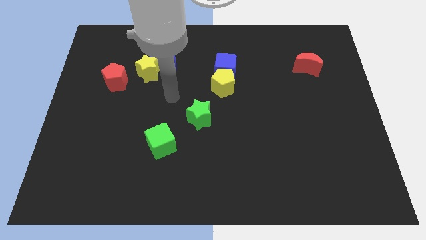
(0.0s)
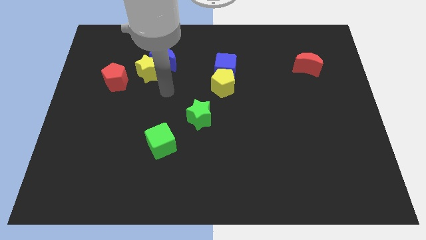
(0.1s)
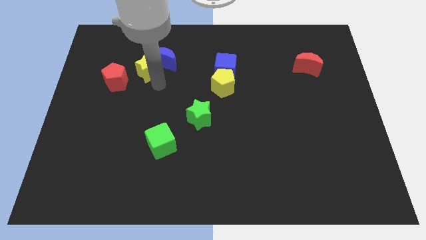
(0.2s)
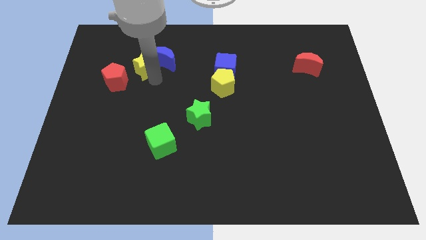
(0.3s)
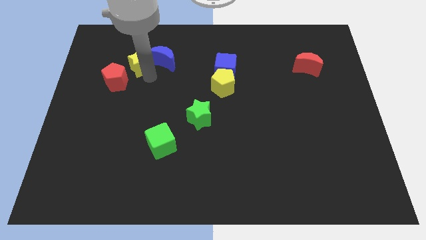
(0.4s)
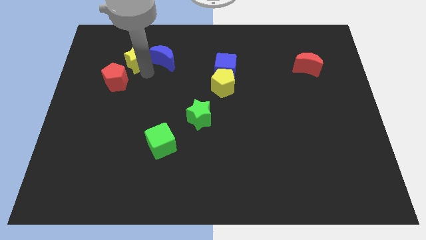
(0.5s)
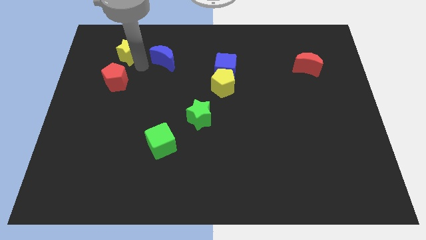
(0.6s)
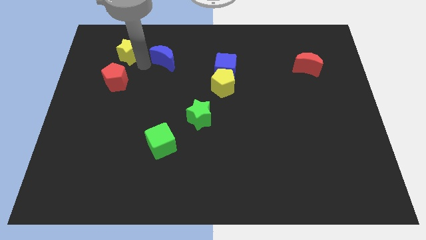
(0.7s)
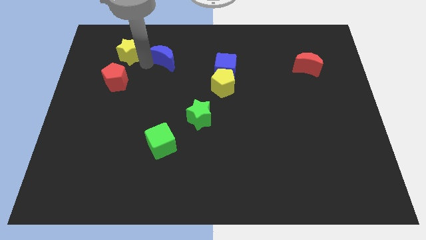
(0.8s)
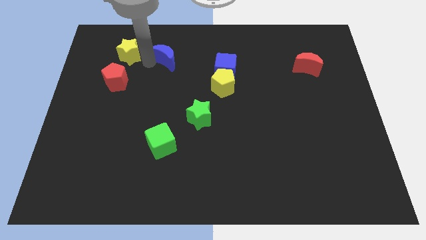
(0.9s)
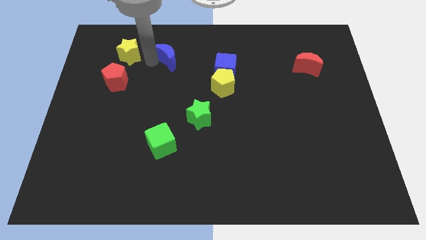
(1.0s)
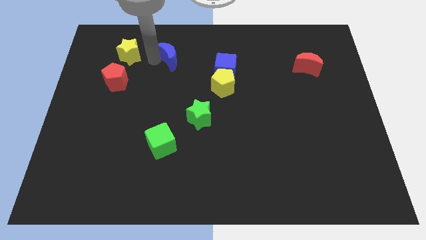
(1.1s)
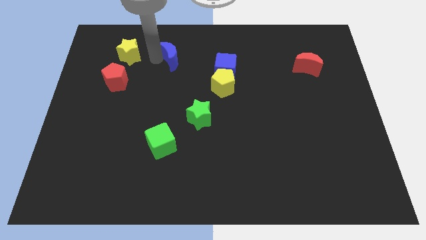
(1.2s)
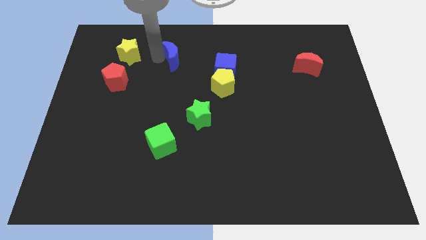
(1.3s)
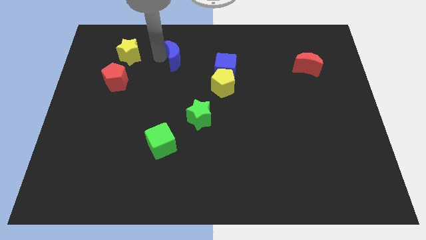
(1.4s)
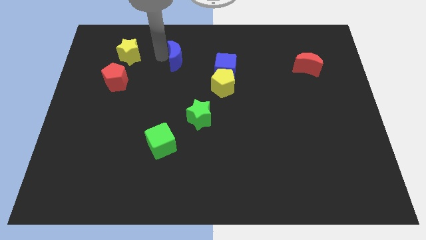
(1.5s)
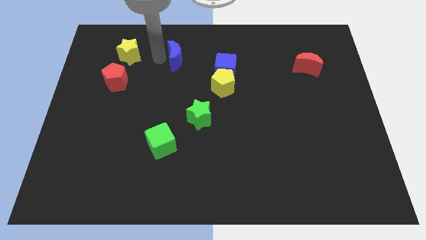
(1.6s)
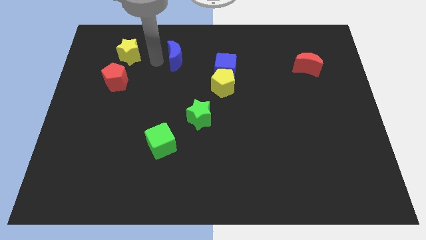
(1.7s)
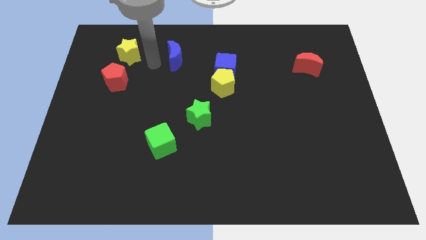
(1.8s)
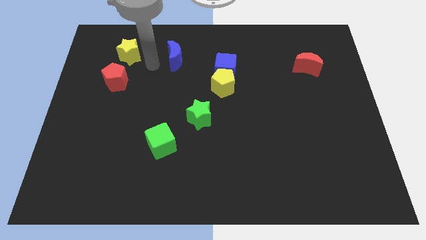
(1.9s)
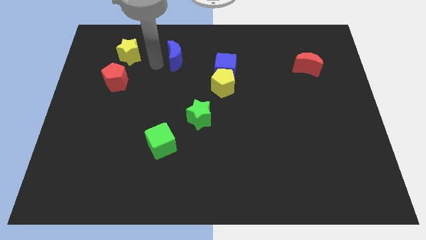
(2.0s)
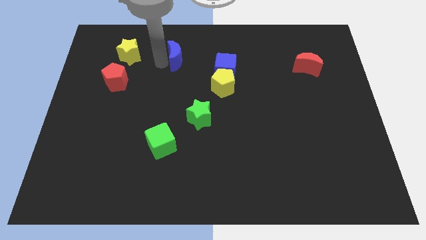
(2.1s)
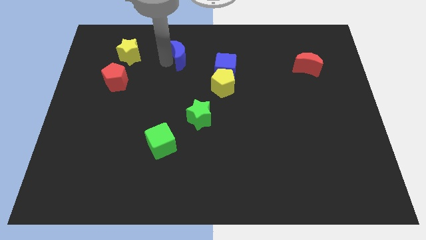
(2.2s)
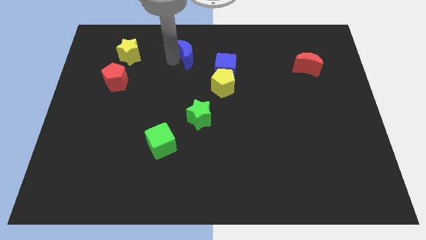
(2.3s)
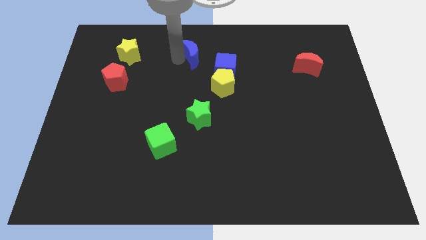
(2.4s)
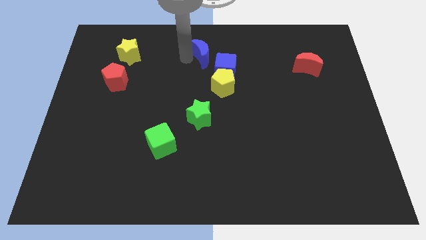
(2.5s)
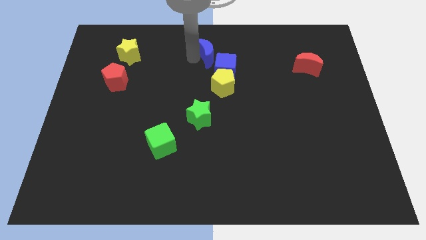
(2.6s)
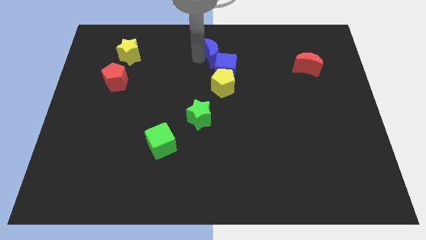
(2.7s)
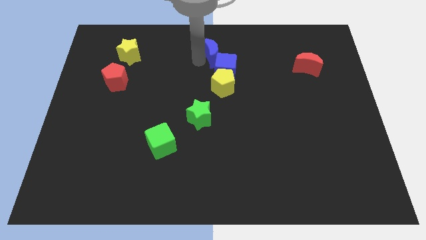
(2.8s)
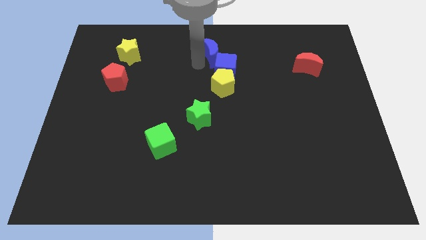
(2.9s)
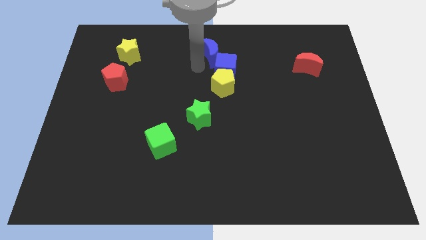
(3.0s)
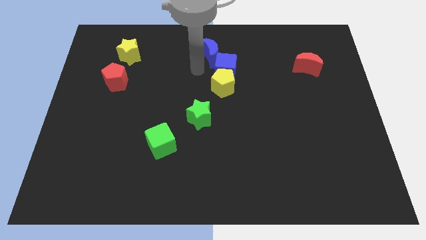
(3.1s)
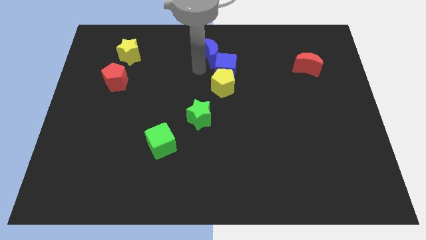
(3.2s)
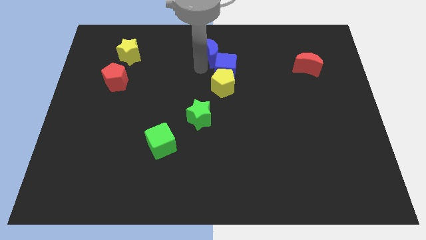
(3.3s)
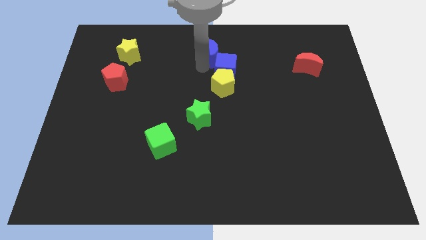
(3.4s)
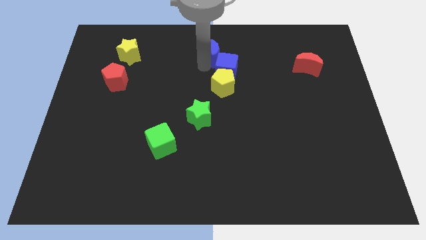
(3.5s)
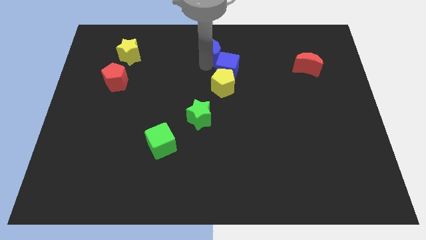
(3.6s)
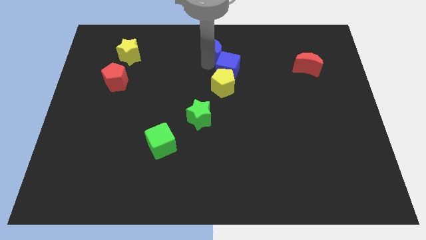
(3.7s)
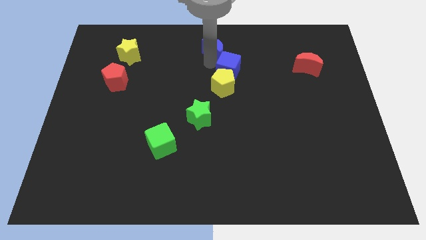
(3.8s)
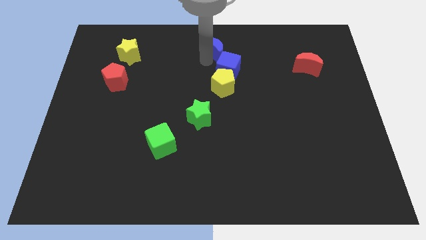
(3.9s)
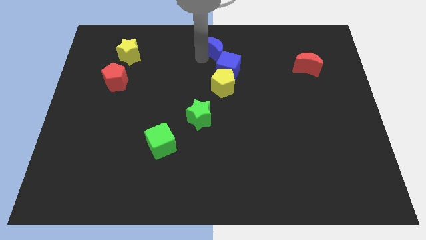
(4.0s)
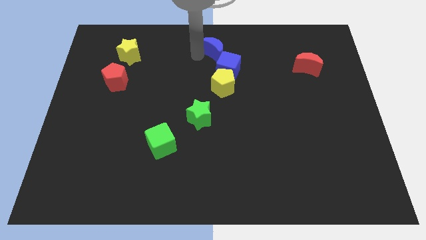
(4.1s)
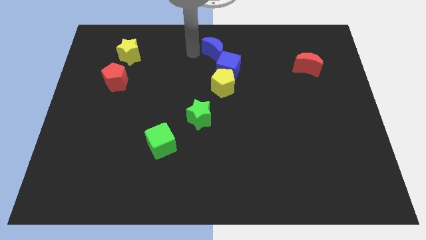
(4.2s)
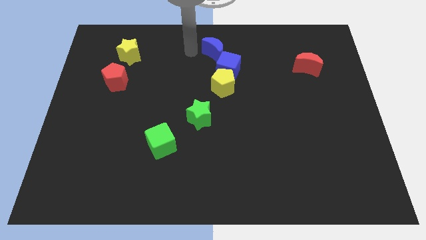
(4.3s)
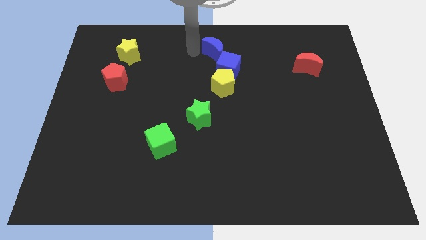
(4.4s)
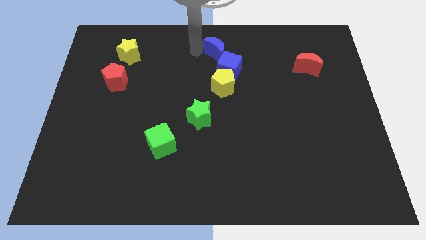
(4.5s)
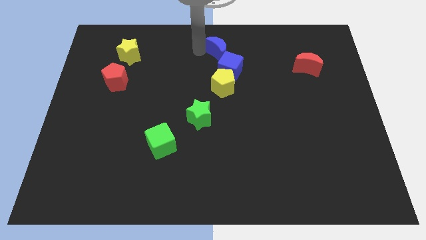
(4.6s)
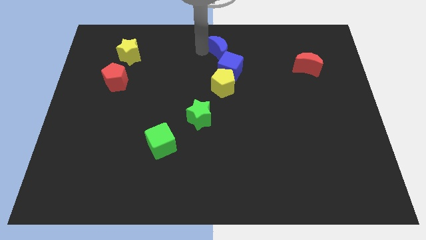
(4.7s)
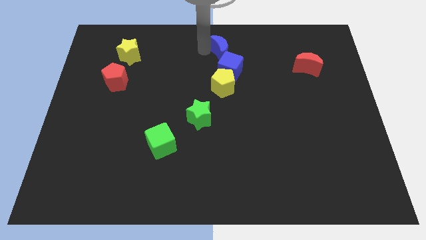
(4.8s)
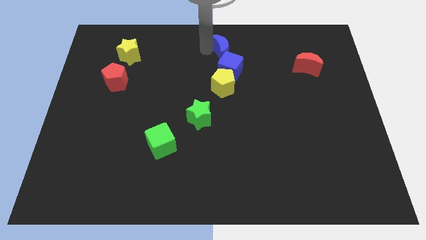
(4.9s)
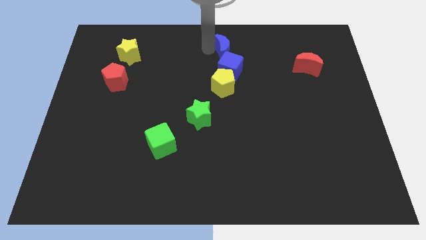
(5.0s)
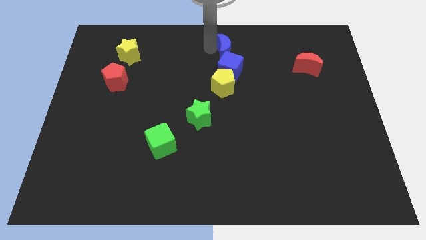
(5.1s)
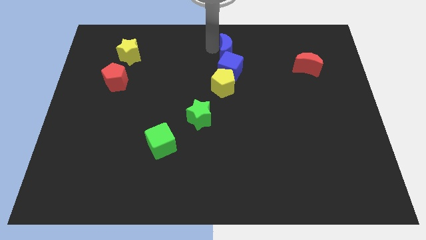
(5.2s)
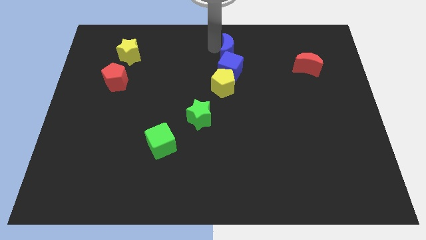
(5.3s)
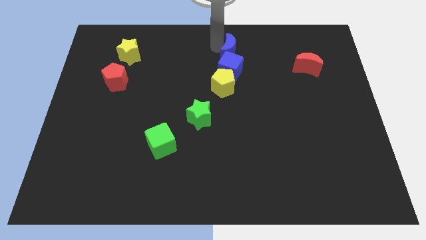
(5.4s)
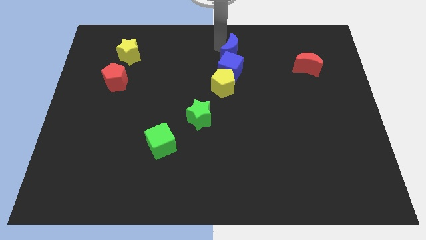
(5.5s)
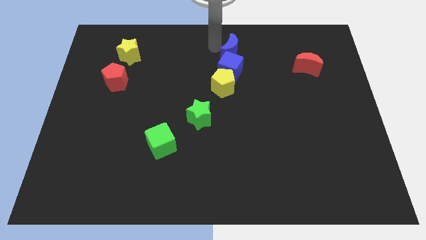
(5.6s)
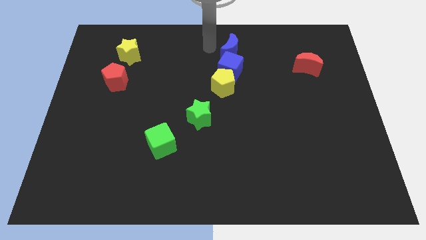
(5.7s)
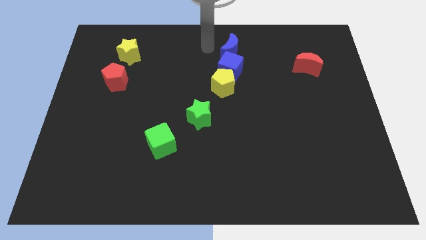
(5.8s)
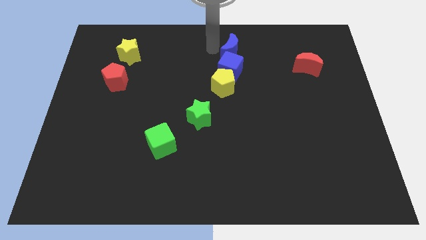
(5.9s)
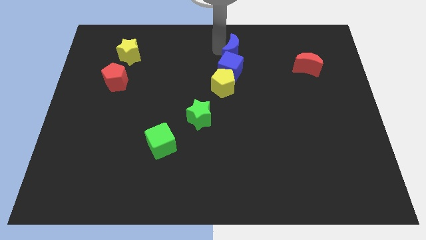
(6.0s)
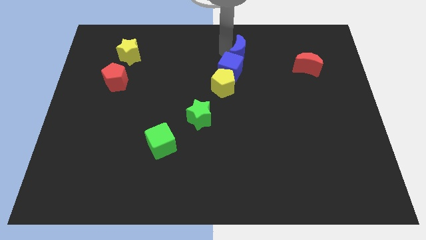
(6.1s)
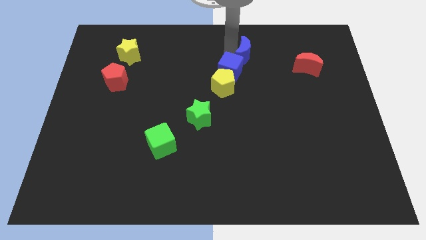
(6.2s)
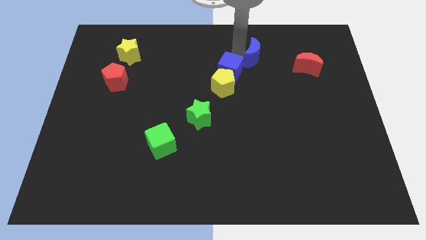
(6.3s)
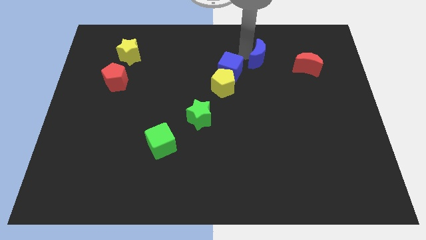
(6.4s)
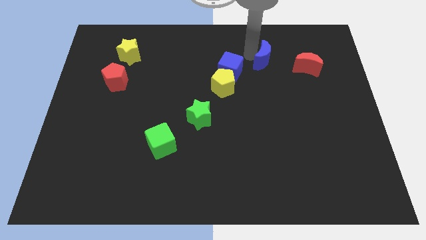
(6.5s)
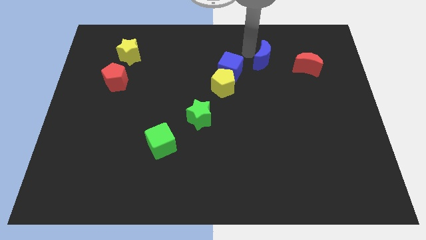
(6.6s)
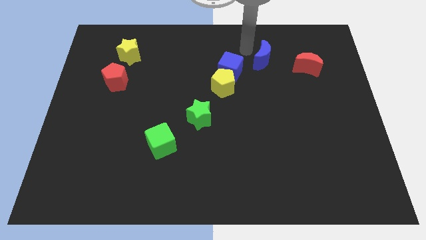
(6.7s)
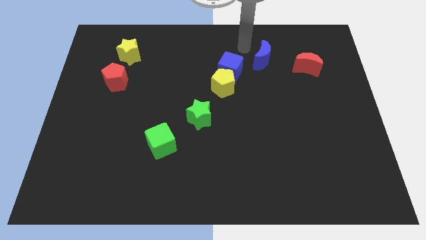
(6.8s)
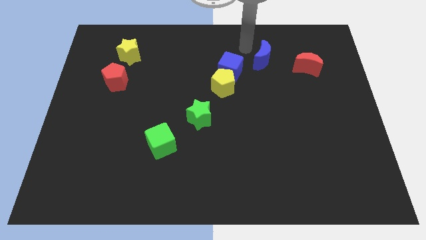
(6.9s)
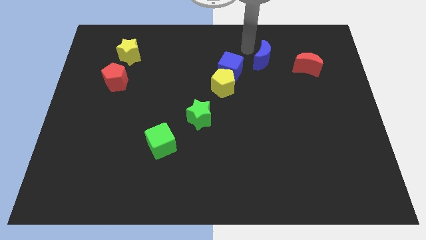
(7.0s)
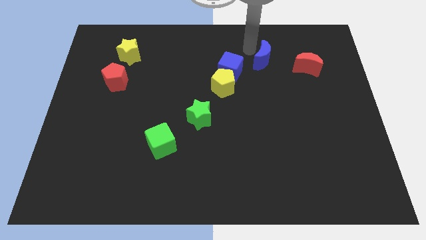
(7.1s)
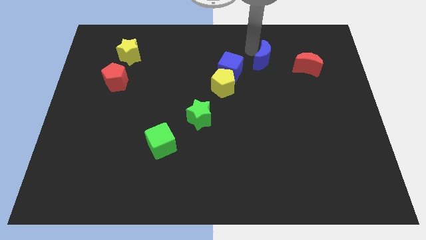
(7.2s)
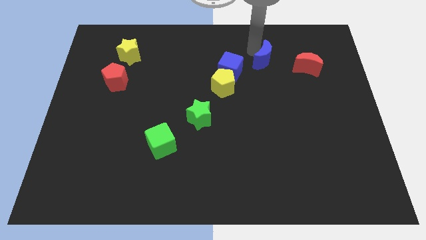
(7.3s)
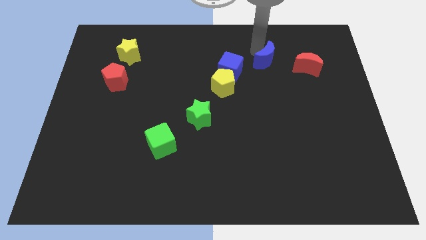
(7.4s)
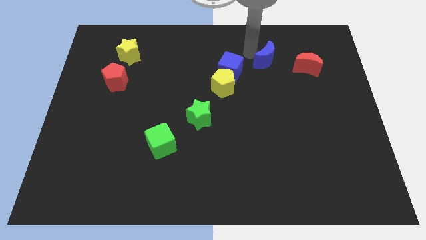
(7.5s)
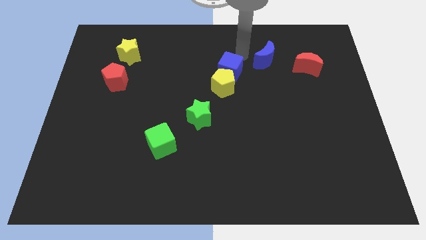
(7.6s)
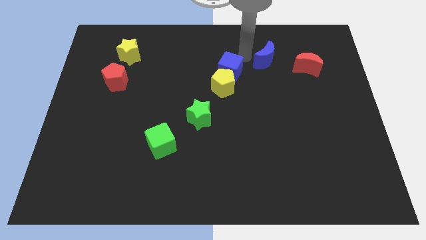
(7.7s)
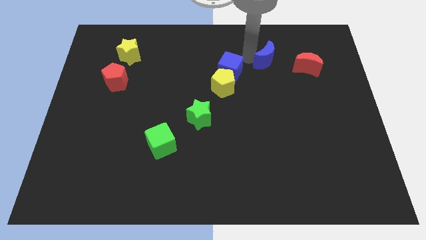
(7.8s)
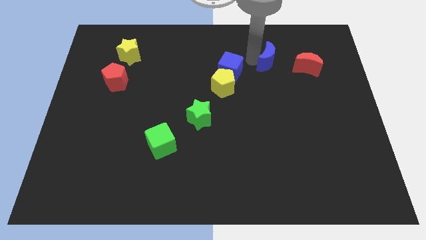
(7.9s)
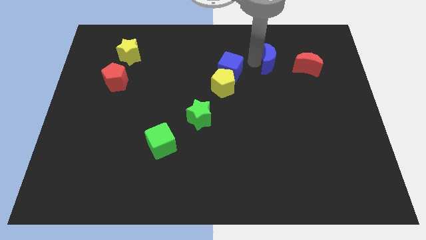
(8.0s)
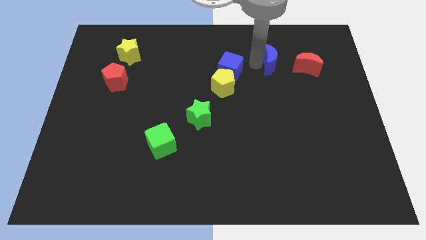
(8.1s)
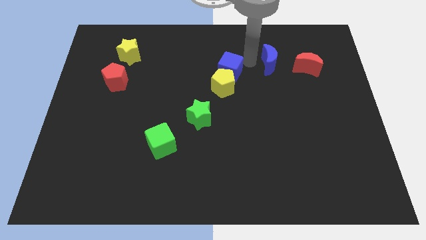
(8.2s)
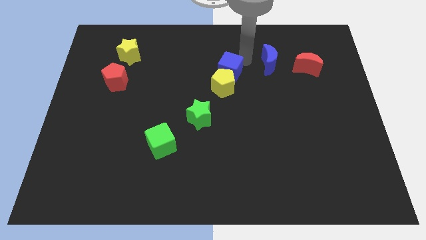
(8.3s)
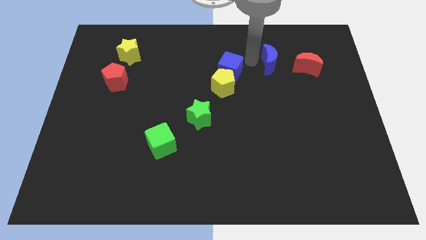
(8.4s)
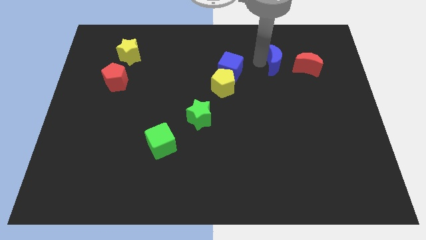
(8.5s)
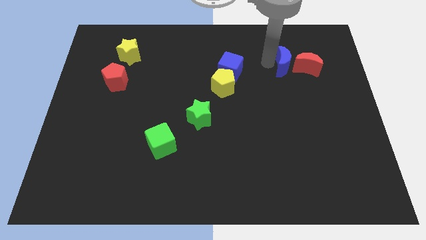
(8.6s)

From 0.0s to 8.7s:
put the blue moon close to the red moon
